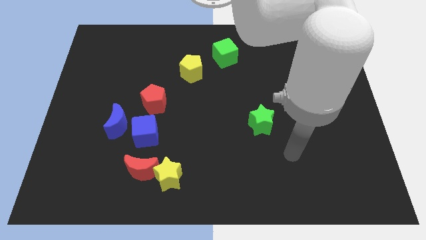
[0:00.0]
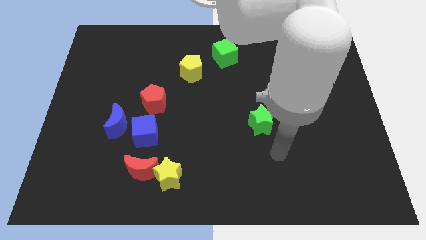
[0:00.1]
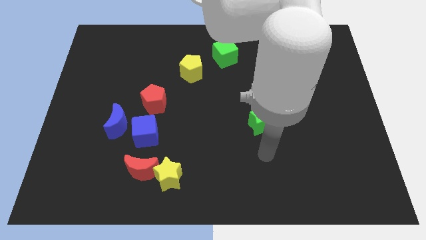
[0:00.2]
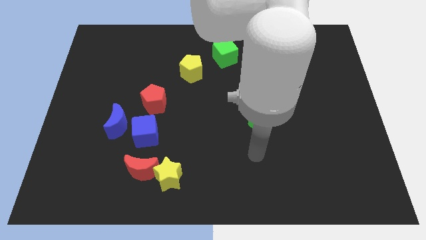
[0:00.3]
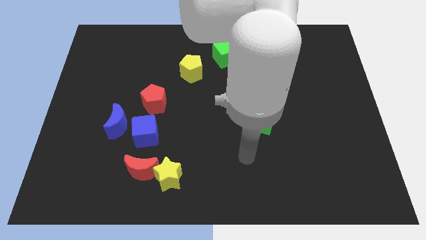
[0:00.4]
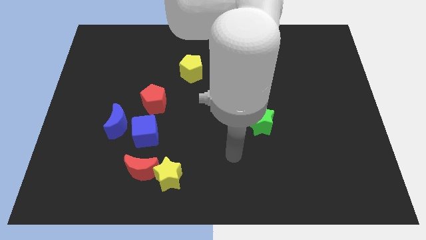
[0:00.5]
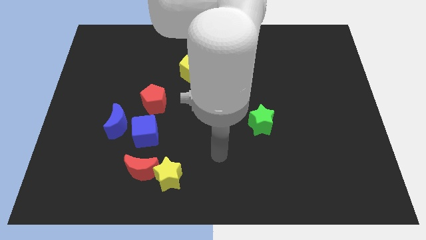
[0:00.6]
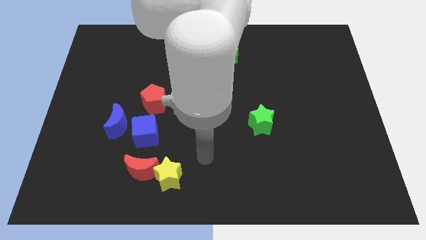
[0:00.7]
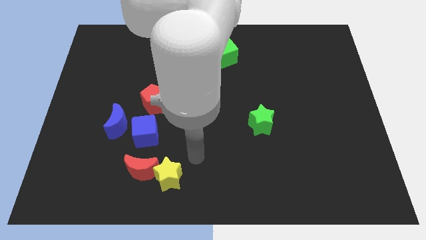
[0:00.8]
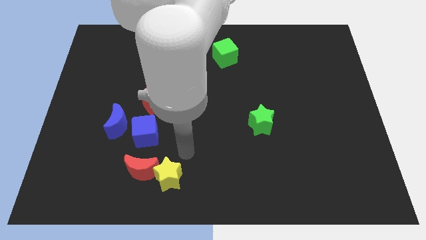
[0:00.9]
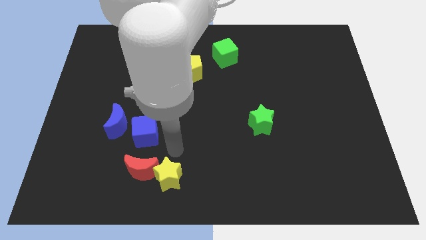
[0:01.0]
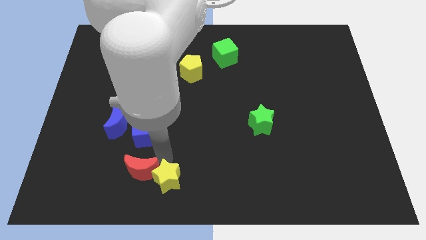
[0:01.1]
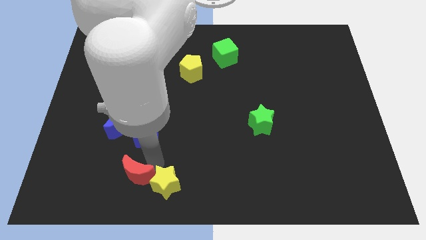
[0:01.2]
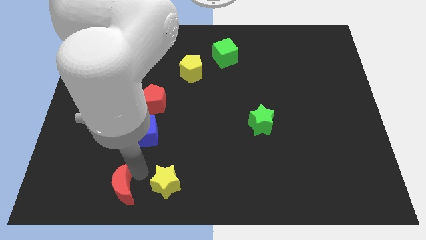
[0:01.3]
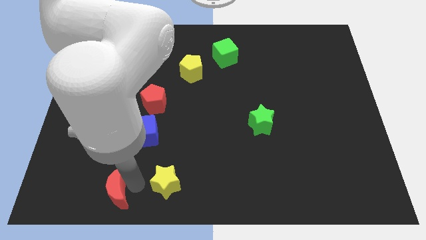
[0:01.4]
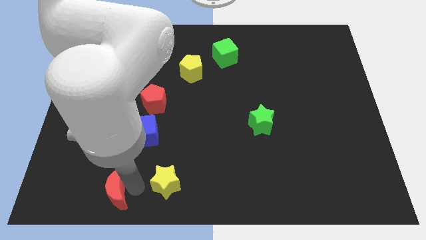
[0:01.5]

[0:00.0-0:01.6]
move the yellow star away from the red moon

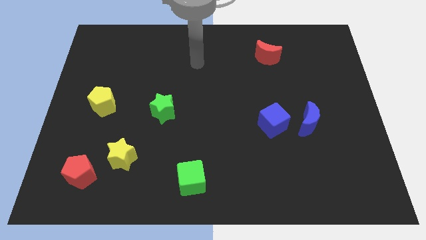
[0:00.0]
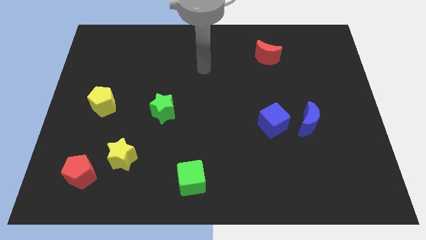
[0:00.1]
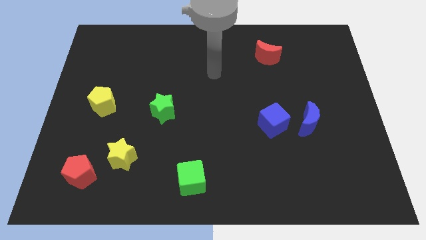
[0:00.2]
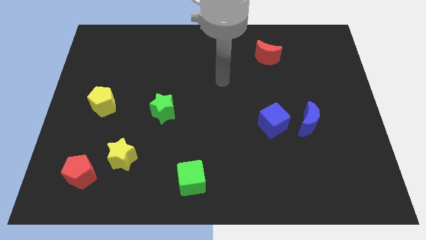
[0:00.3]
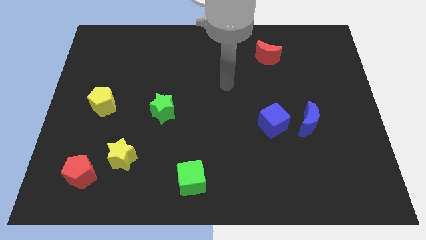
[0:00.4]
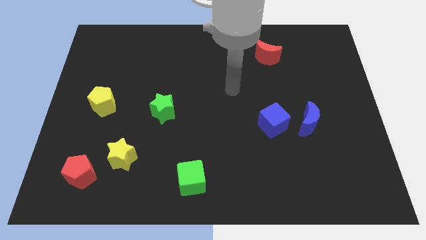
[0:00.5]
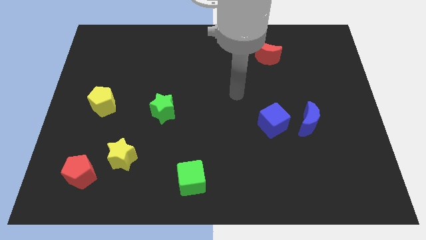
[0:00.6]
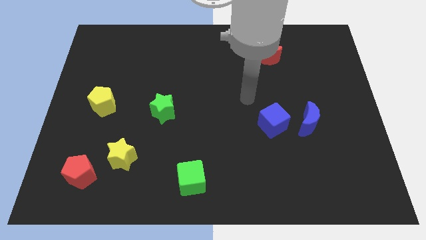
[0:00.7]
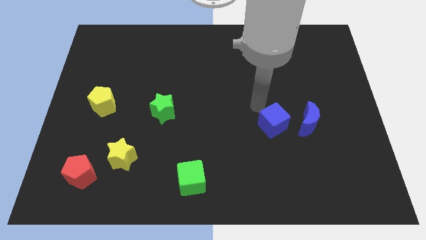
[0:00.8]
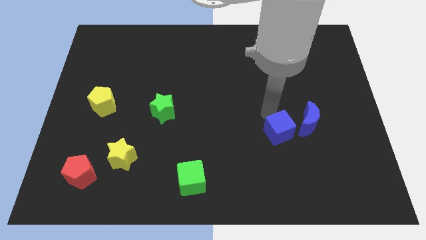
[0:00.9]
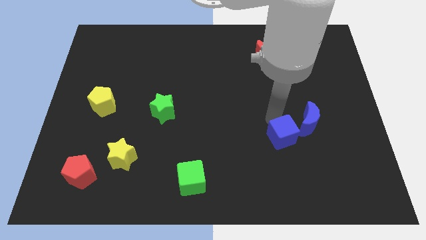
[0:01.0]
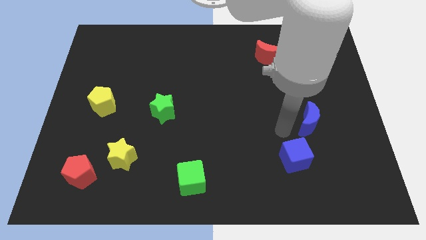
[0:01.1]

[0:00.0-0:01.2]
separate the blue moon from the blue cube

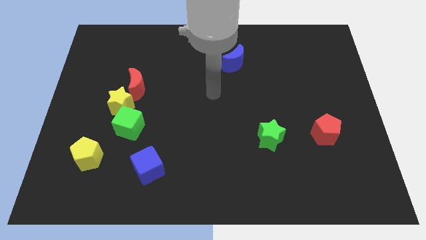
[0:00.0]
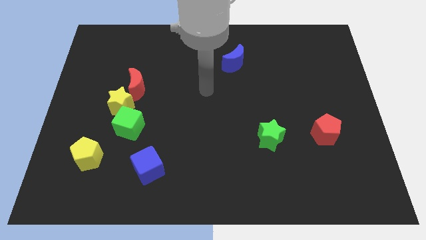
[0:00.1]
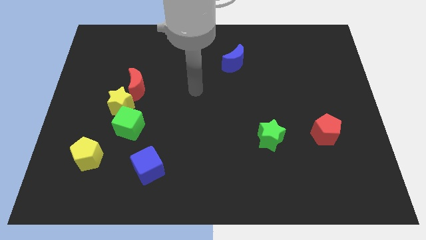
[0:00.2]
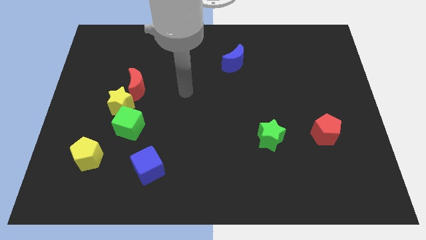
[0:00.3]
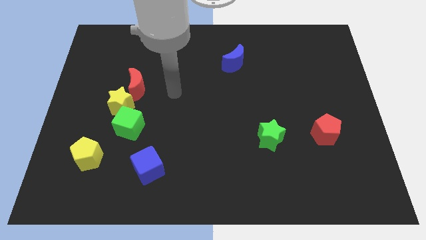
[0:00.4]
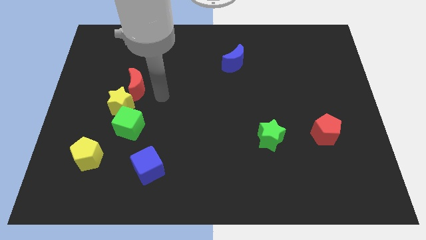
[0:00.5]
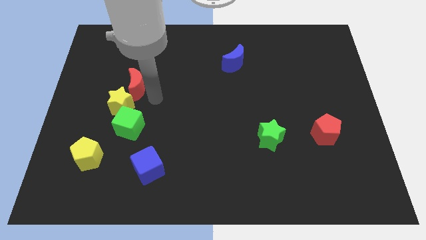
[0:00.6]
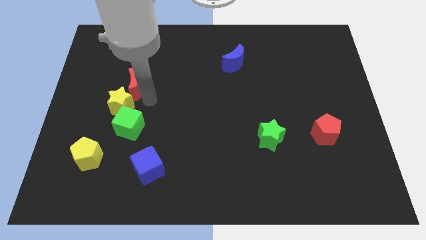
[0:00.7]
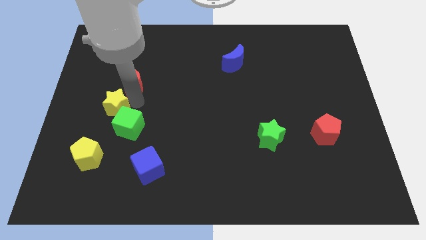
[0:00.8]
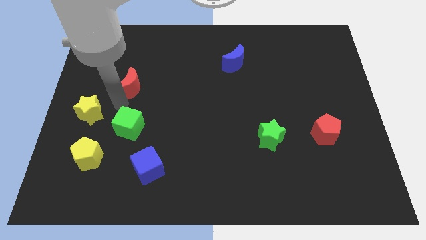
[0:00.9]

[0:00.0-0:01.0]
pull the red moon apart from the yellow star

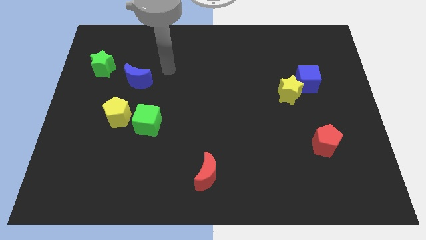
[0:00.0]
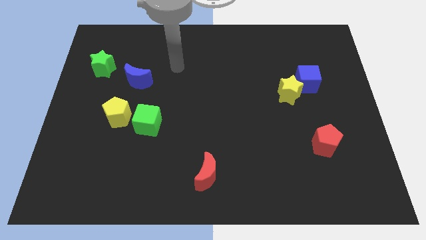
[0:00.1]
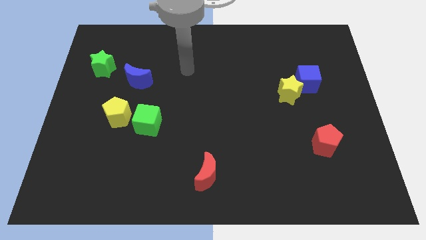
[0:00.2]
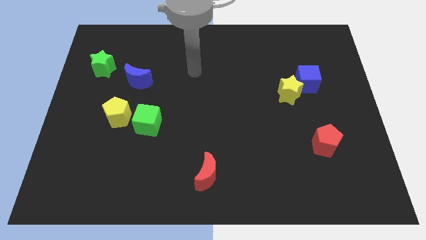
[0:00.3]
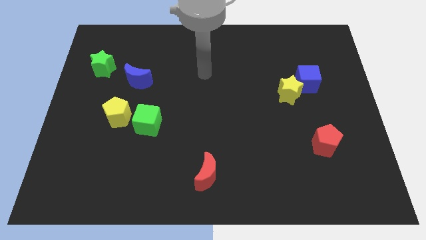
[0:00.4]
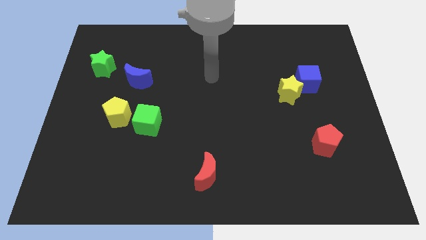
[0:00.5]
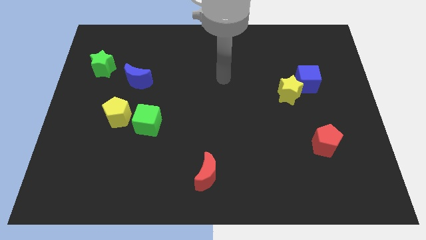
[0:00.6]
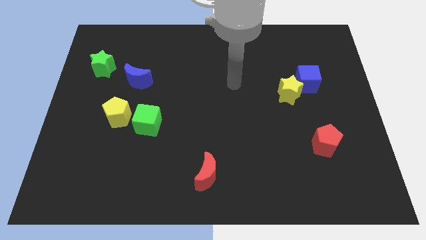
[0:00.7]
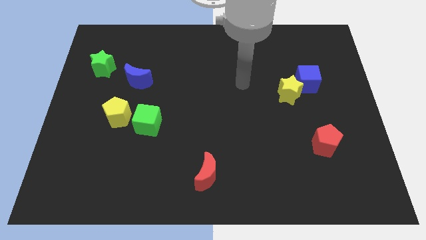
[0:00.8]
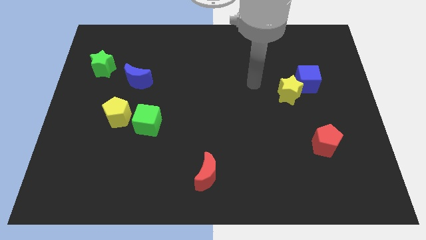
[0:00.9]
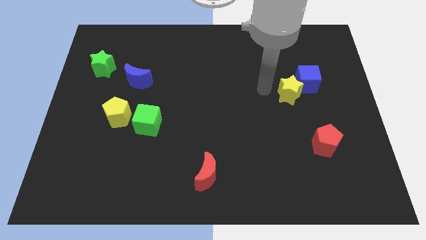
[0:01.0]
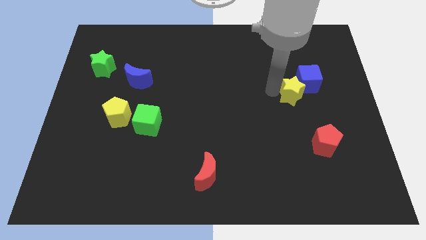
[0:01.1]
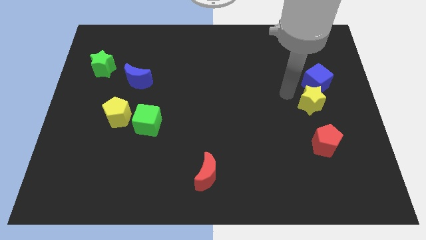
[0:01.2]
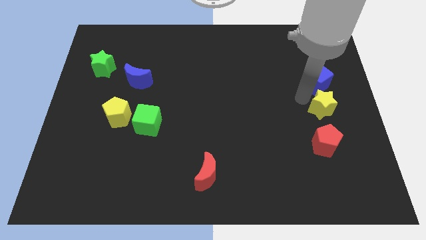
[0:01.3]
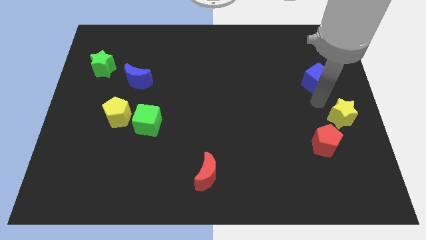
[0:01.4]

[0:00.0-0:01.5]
separate the blue cube from the yellow star

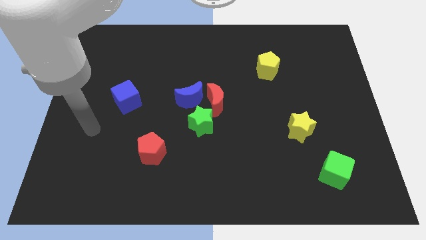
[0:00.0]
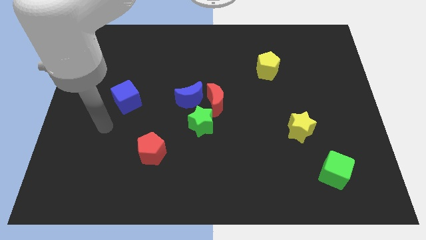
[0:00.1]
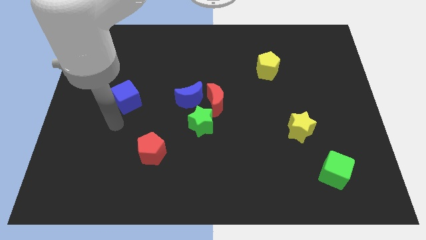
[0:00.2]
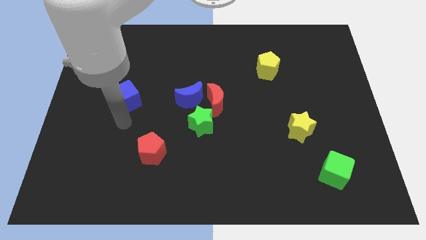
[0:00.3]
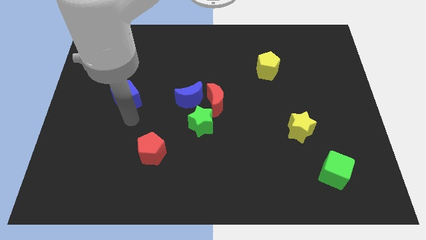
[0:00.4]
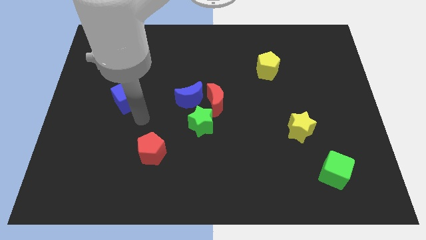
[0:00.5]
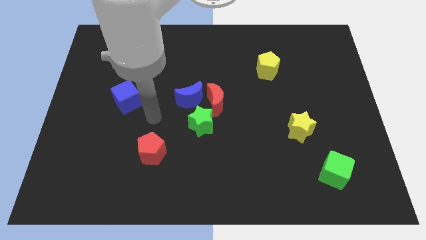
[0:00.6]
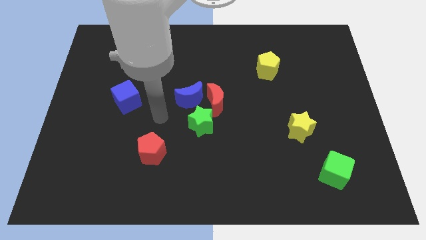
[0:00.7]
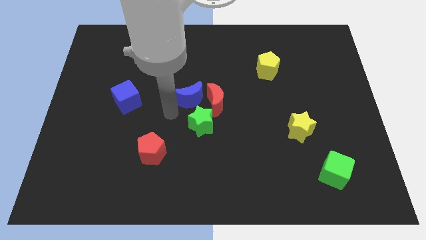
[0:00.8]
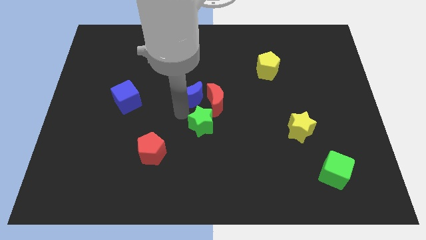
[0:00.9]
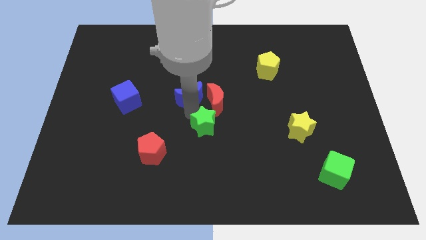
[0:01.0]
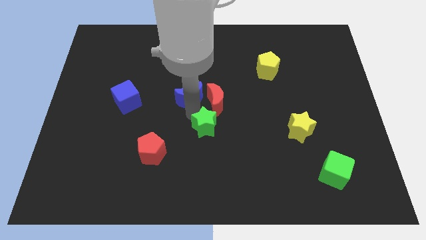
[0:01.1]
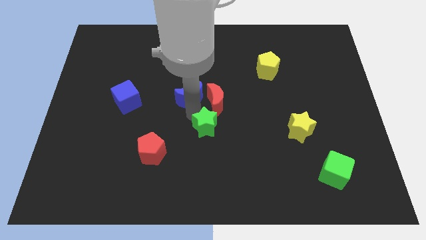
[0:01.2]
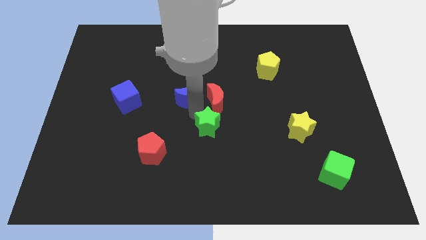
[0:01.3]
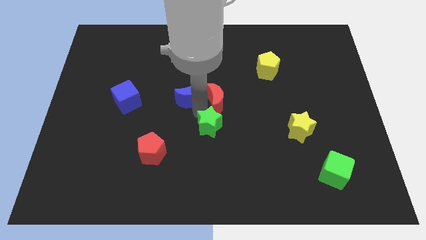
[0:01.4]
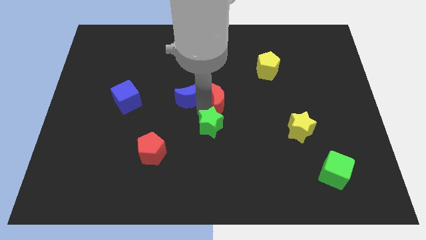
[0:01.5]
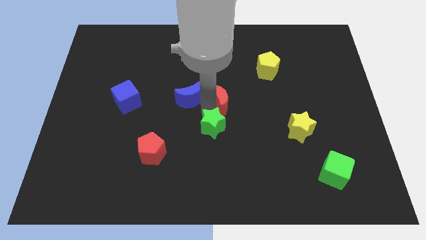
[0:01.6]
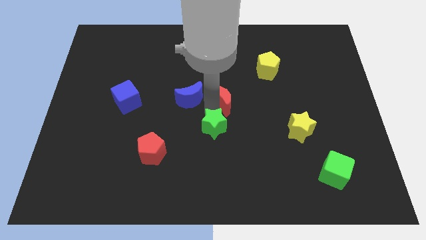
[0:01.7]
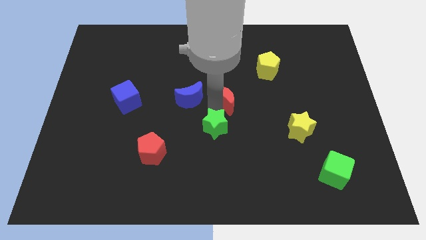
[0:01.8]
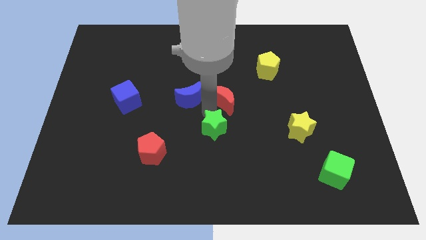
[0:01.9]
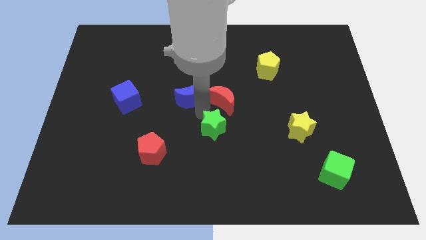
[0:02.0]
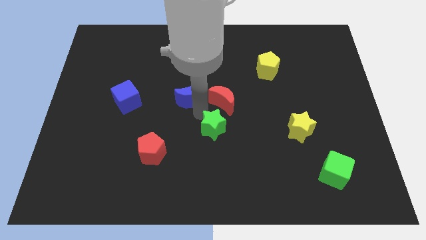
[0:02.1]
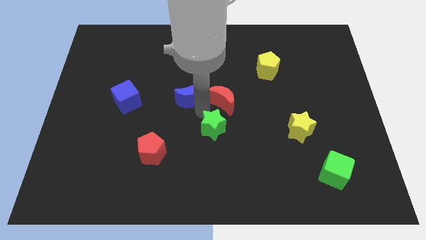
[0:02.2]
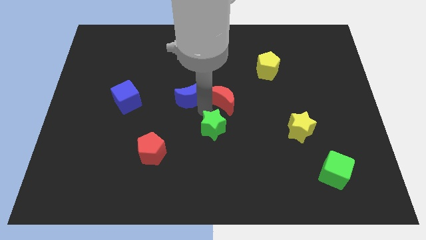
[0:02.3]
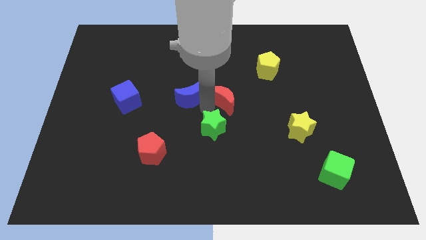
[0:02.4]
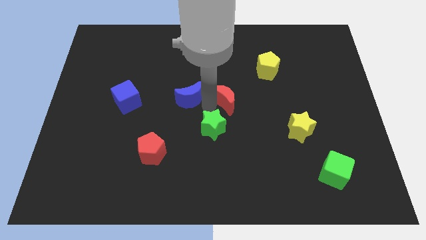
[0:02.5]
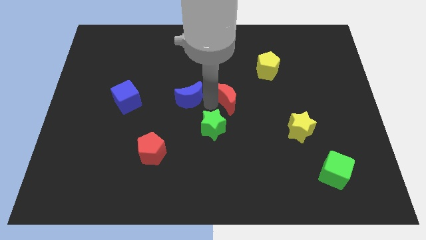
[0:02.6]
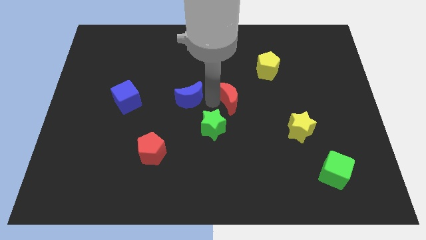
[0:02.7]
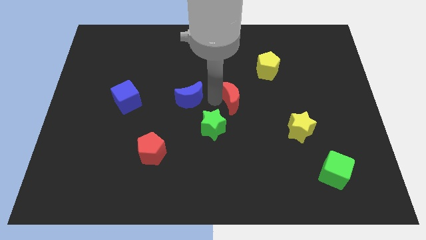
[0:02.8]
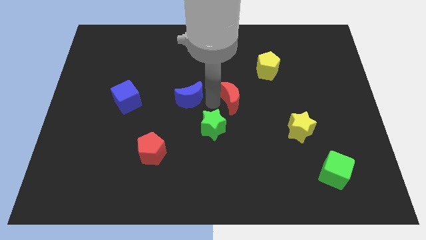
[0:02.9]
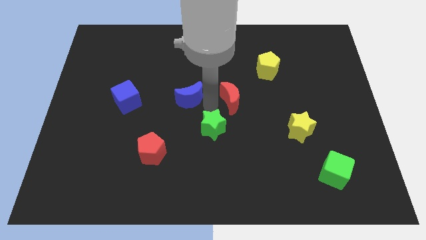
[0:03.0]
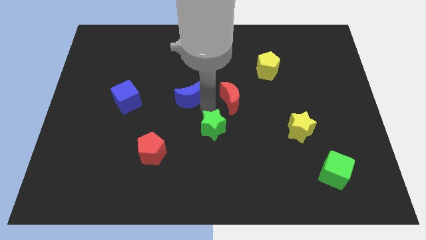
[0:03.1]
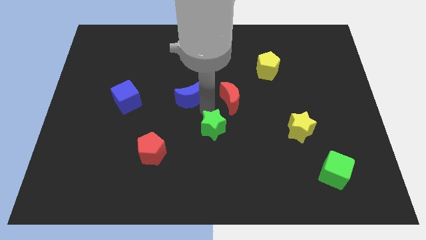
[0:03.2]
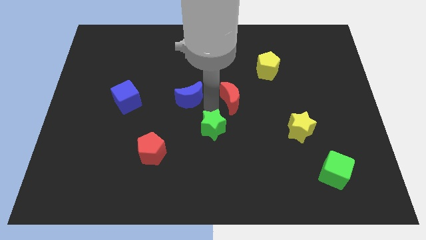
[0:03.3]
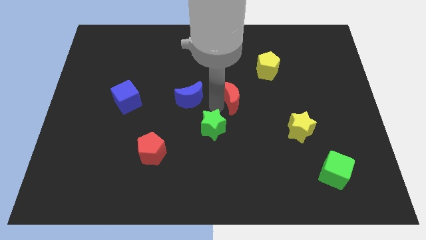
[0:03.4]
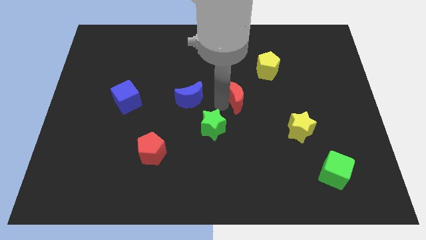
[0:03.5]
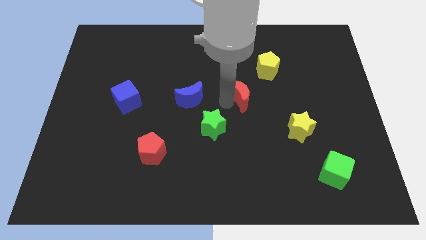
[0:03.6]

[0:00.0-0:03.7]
separate the red moon from the blue moon and green star

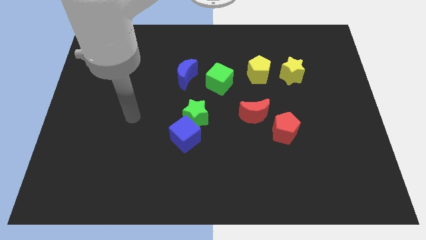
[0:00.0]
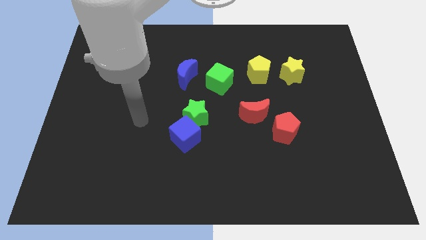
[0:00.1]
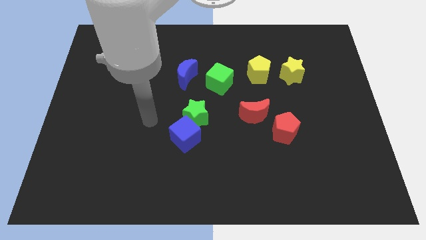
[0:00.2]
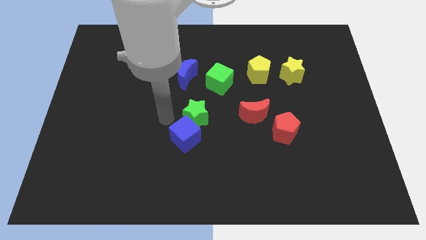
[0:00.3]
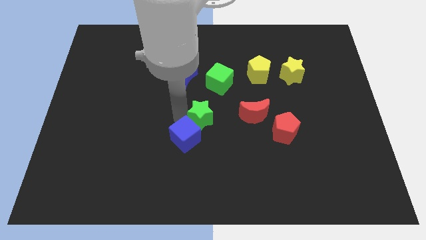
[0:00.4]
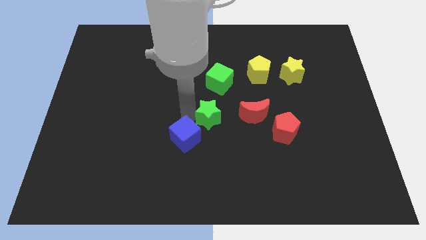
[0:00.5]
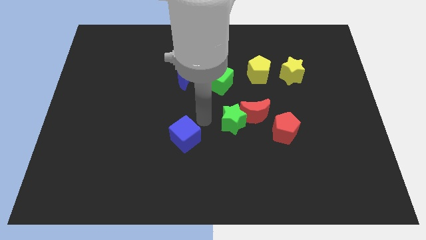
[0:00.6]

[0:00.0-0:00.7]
pull the blue cube apart from the green star
